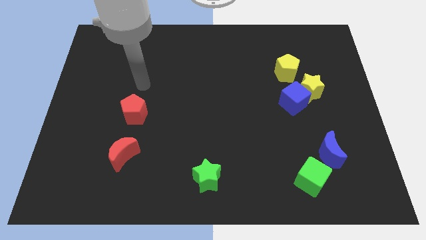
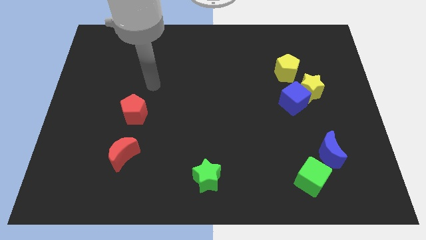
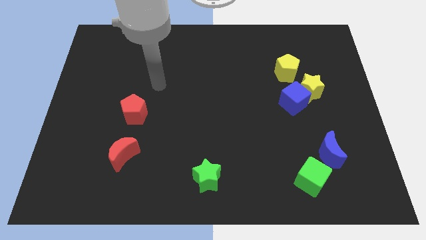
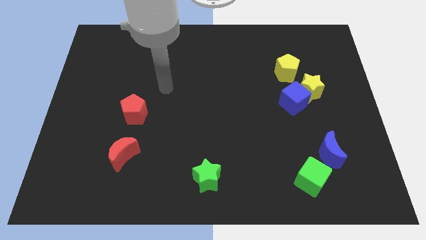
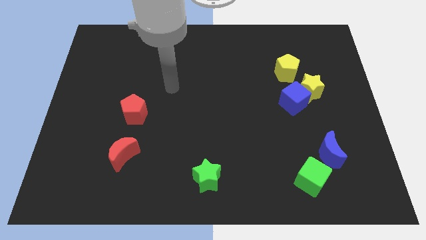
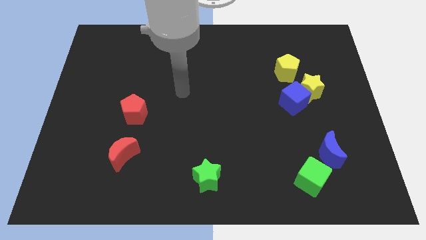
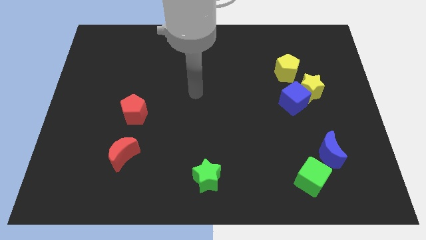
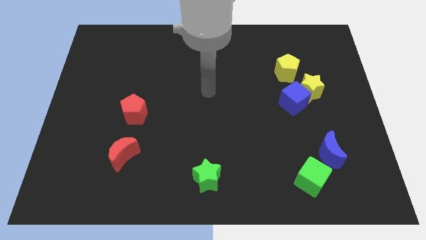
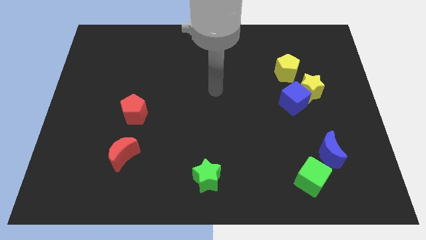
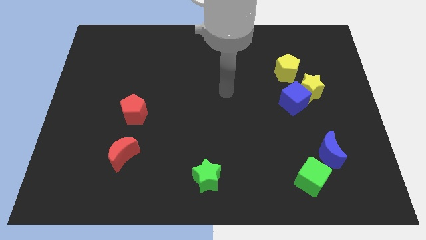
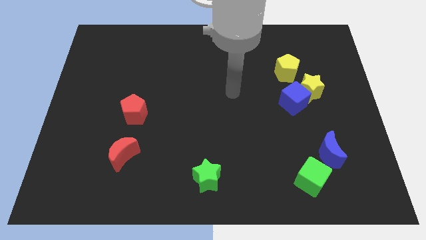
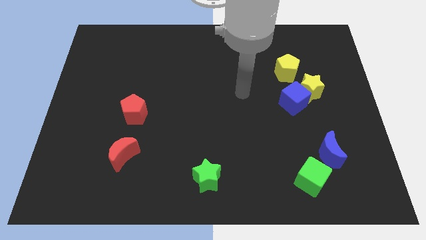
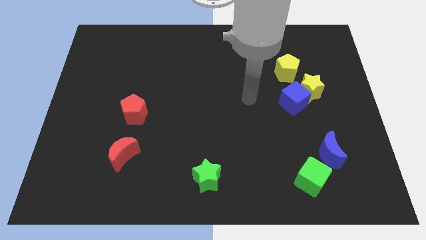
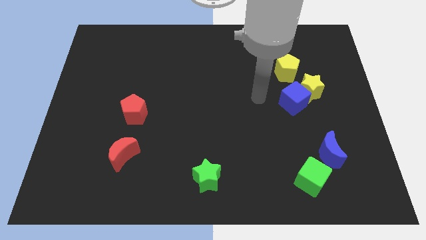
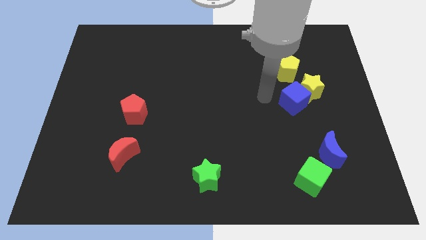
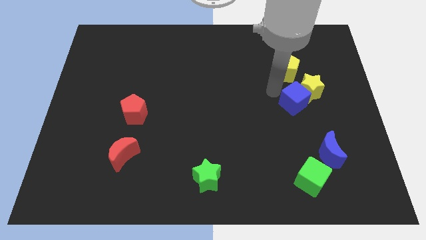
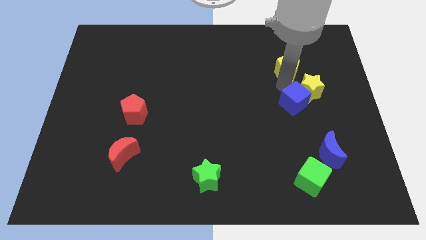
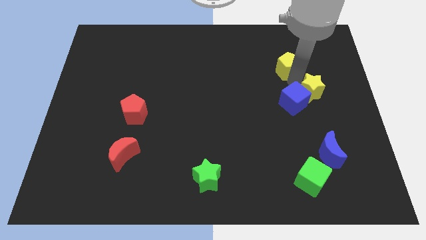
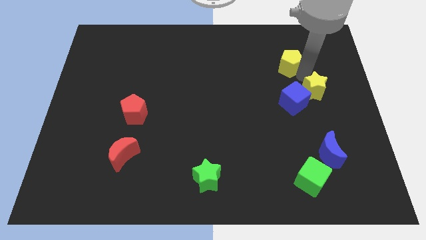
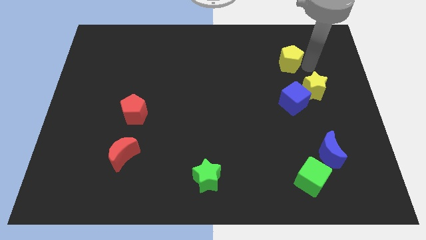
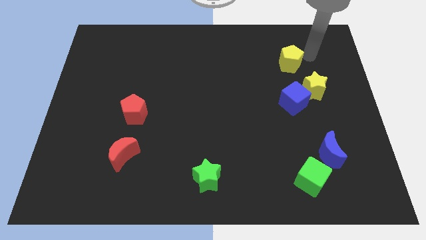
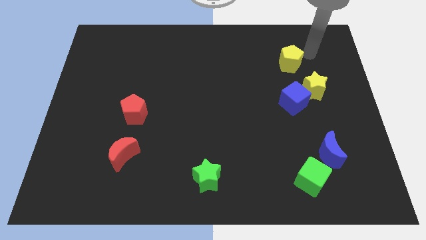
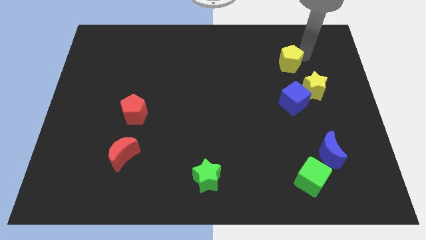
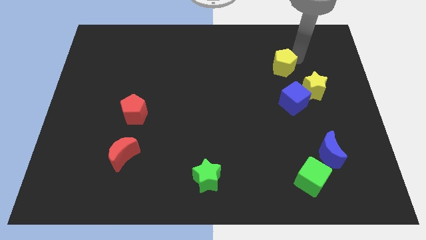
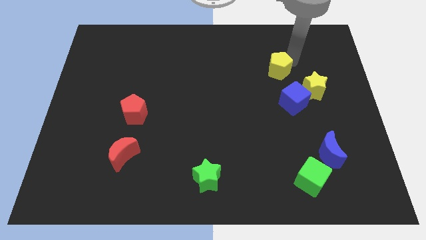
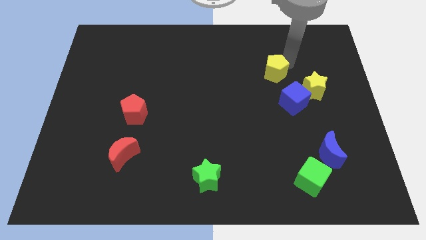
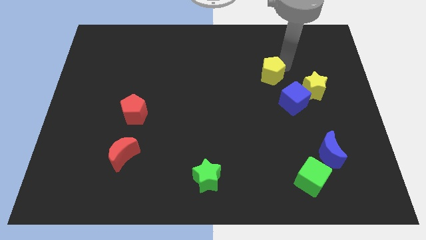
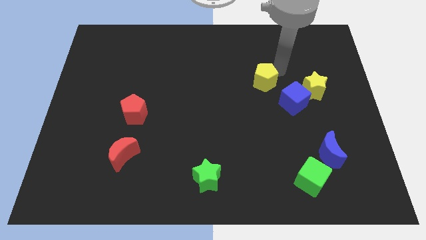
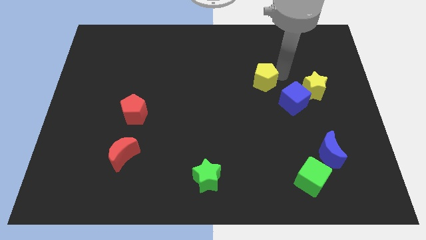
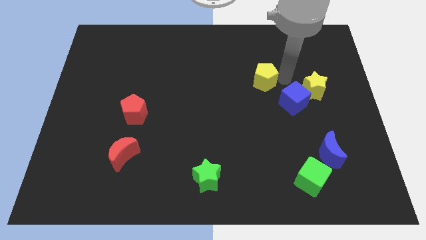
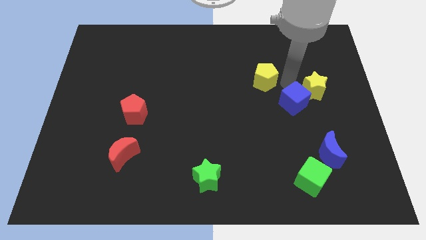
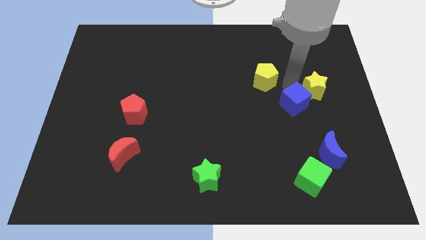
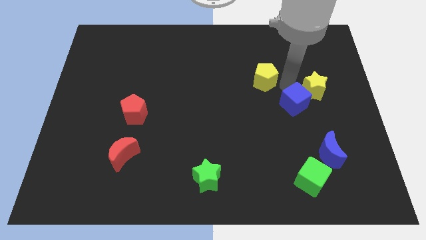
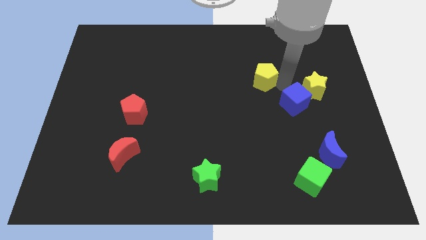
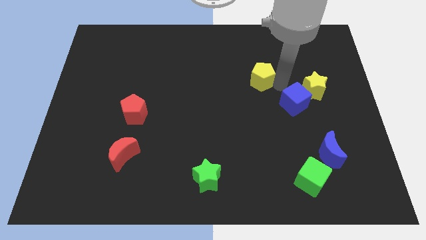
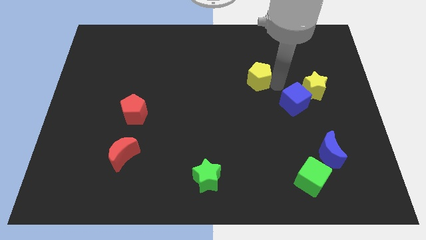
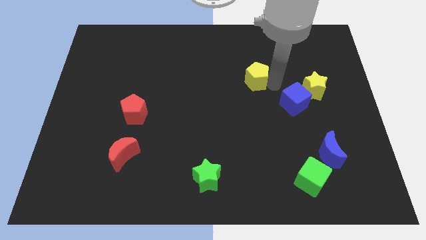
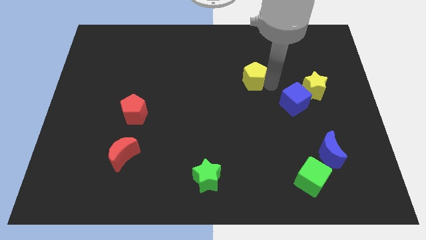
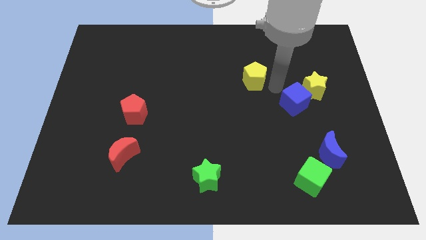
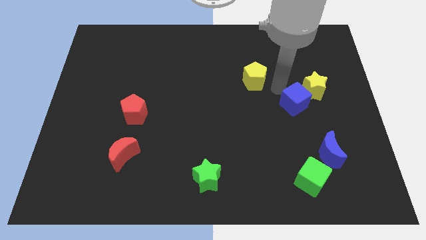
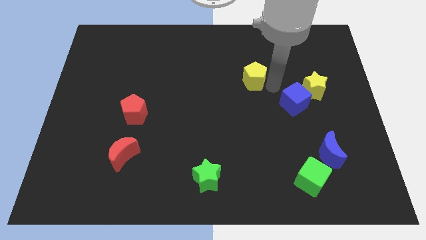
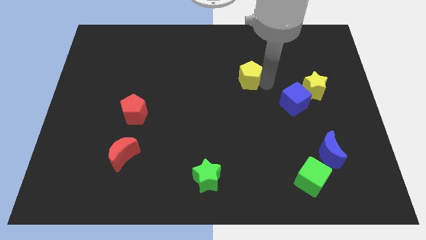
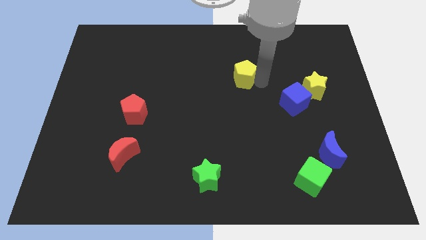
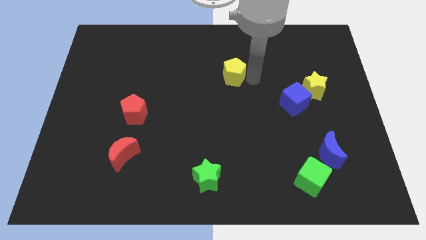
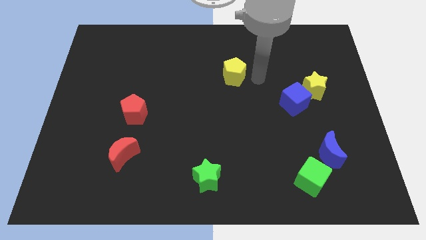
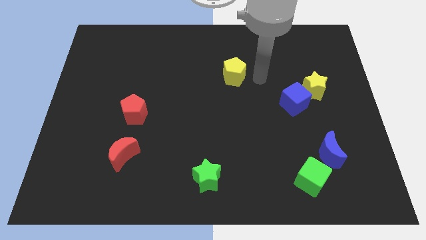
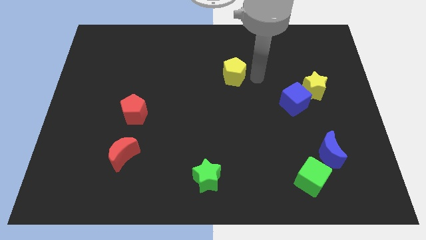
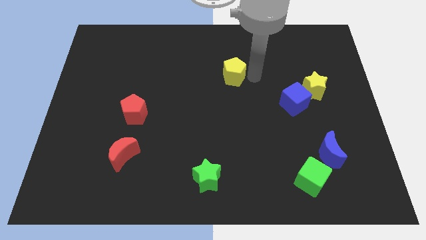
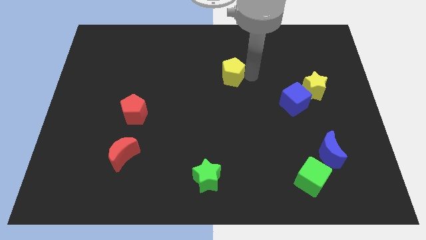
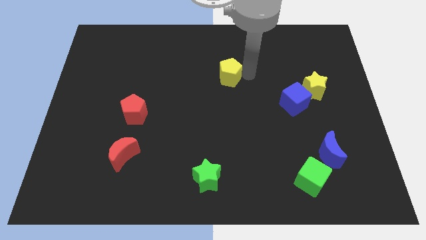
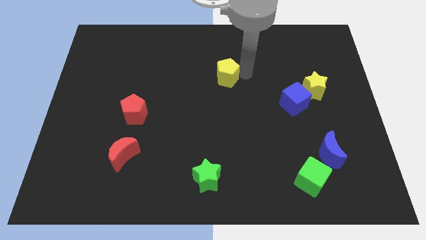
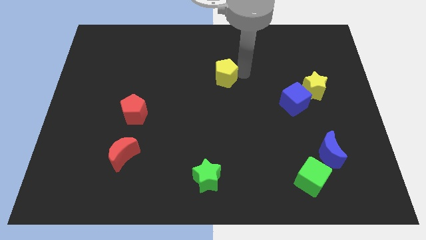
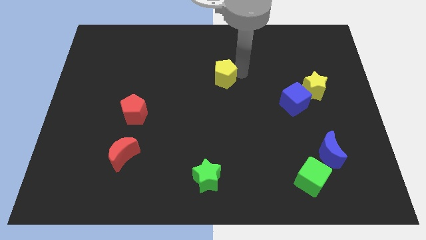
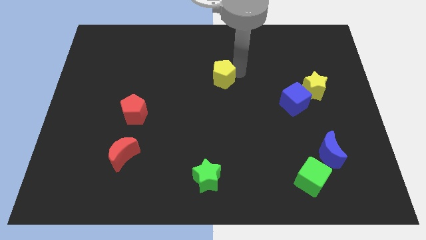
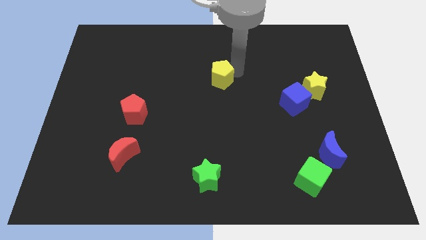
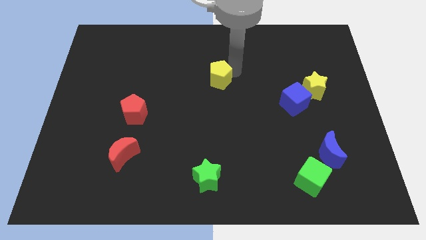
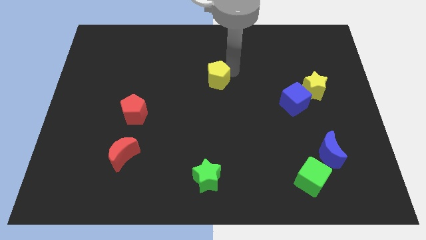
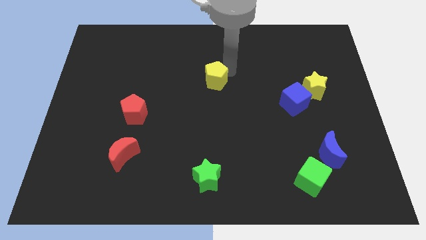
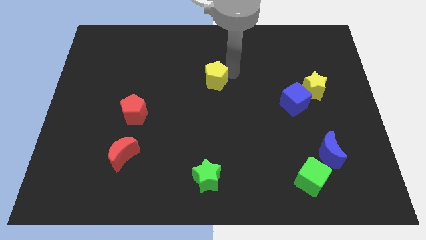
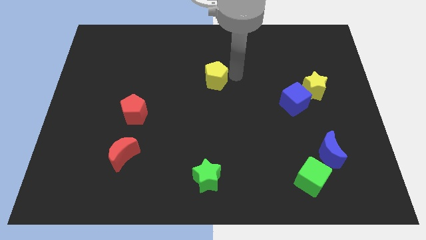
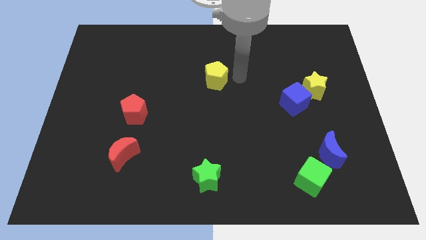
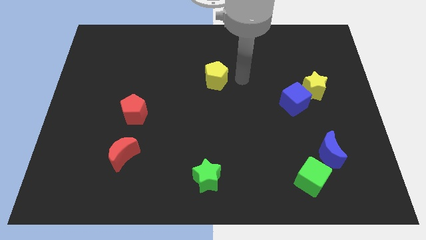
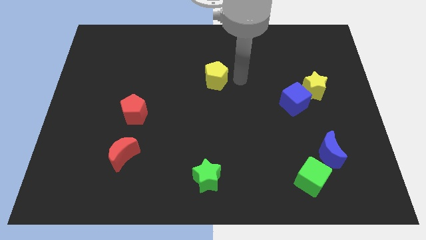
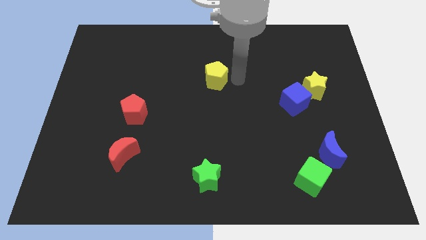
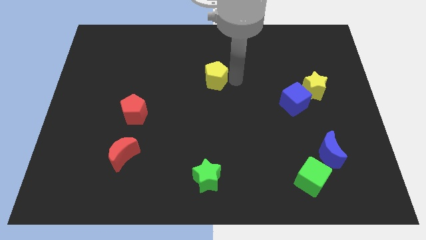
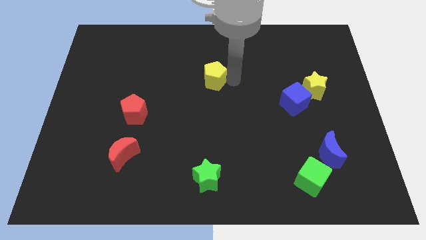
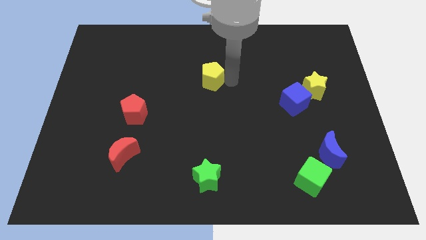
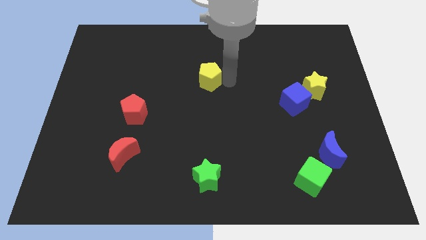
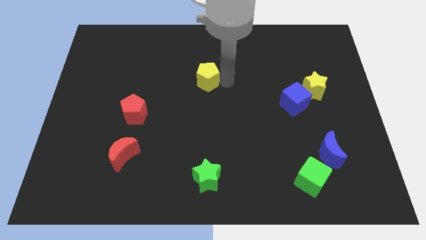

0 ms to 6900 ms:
move the yellow pentagon to the left

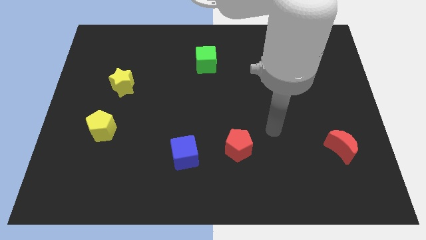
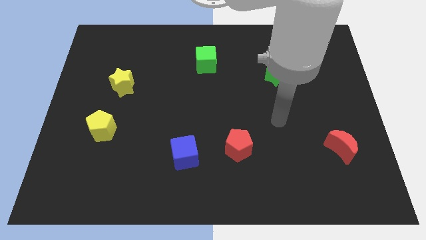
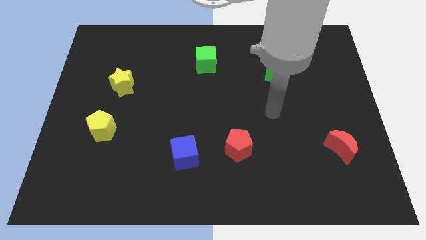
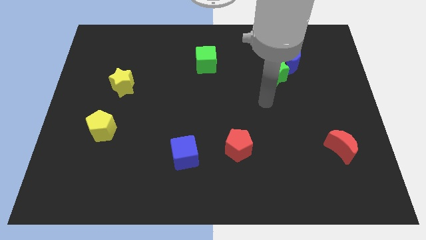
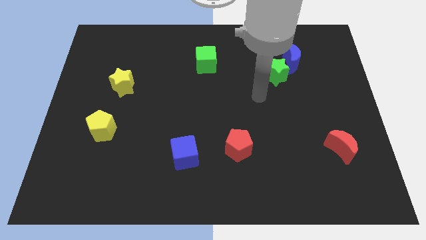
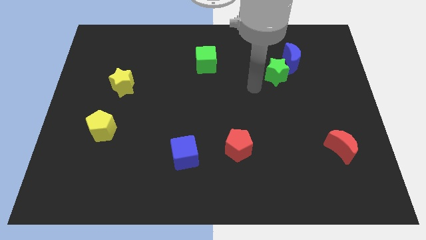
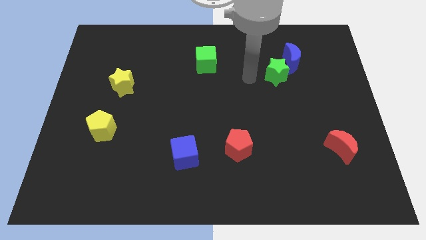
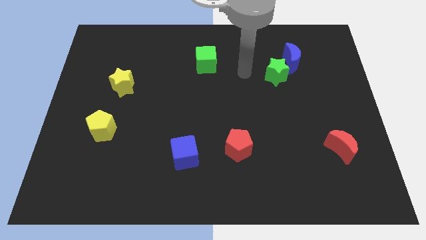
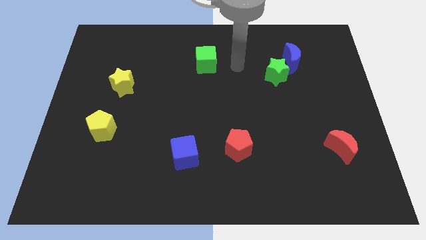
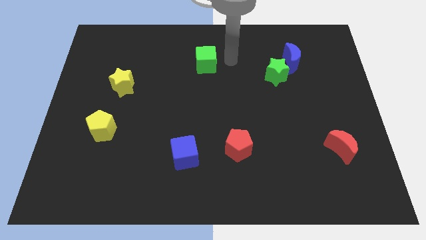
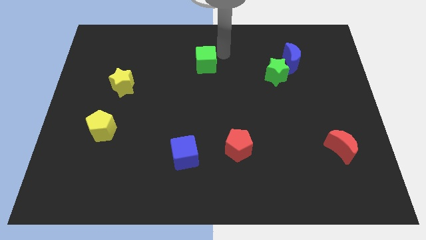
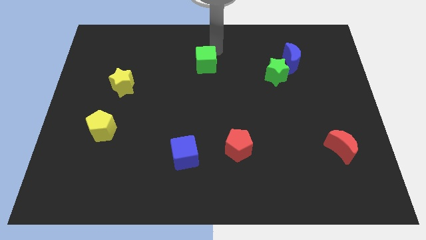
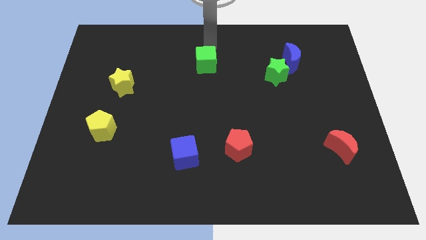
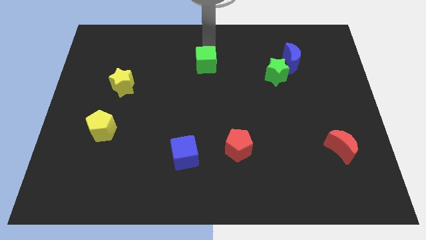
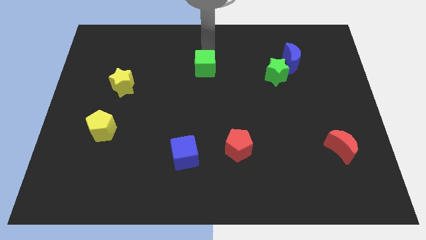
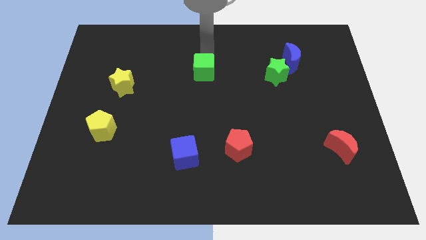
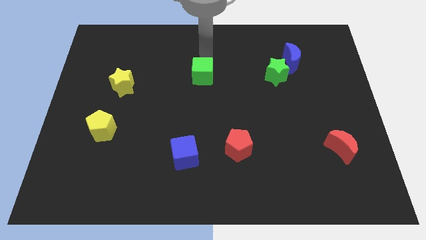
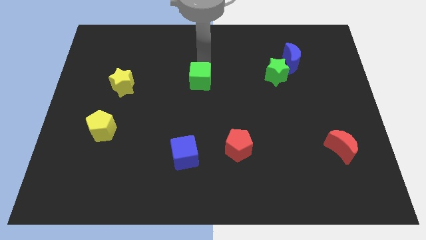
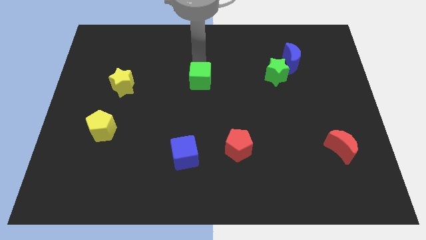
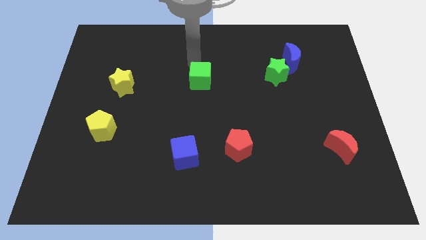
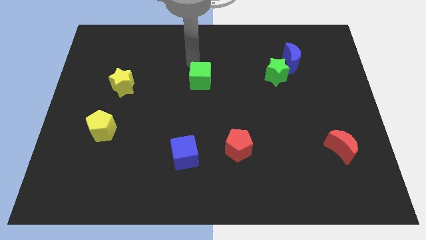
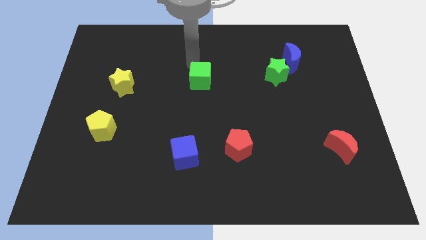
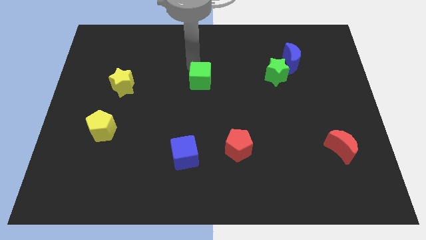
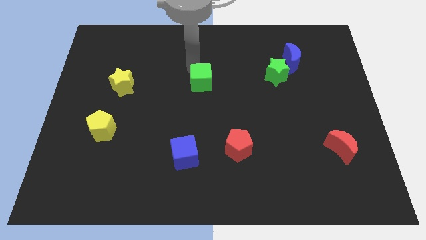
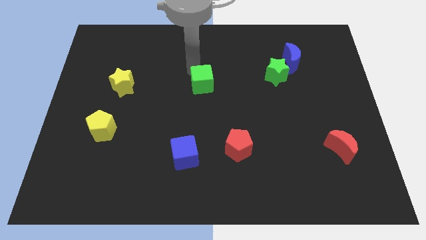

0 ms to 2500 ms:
move the green cube somewhat downwards
